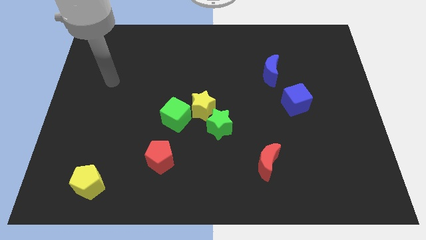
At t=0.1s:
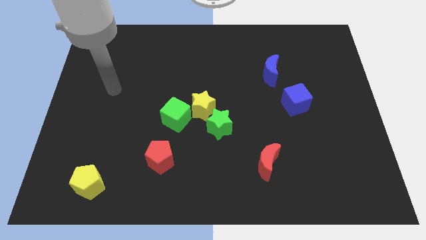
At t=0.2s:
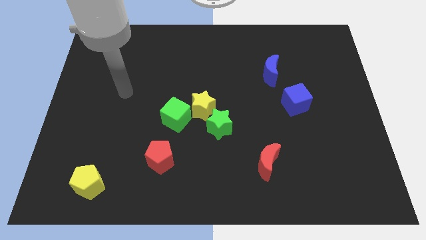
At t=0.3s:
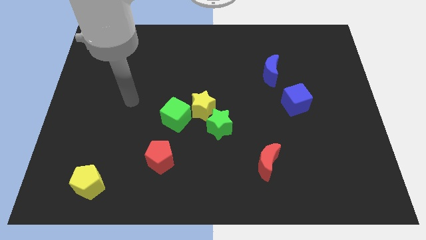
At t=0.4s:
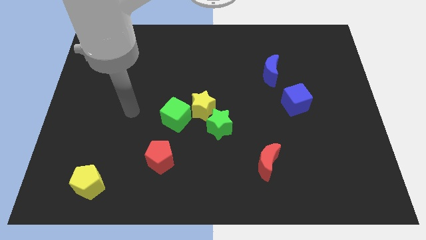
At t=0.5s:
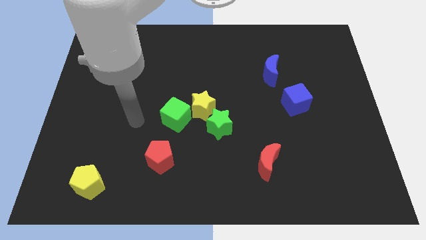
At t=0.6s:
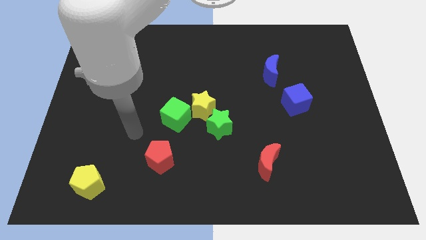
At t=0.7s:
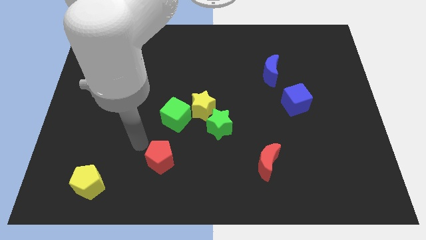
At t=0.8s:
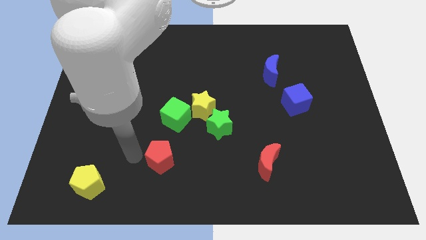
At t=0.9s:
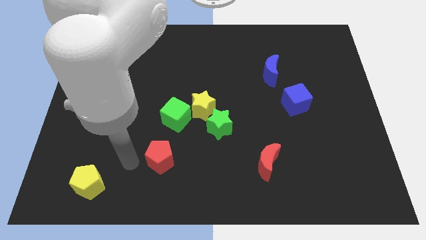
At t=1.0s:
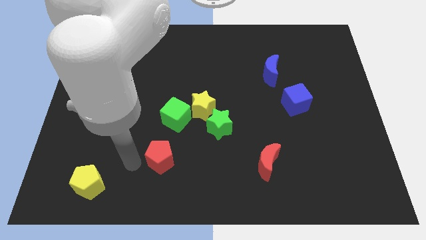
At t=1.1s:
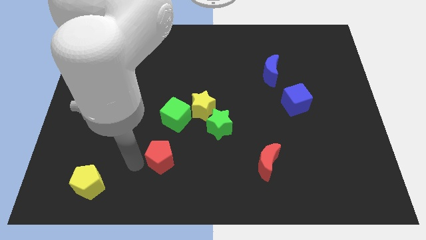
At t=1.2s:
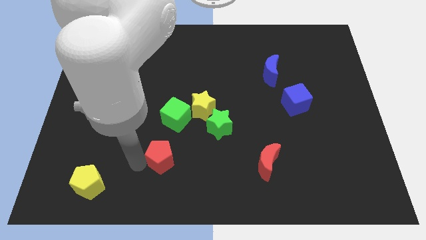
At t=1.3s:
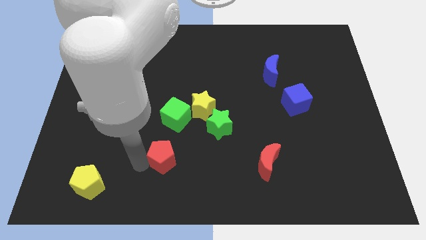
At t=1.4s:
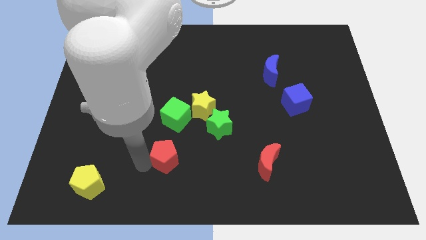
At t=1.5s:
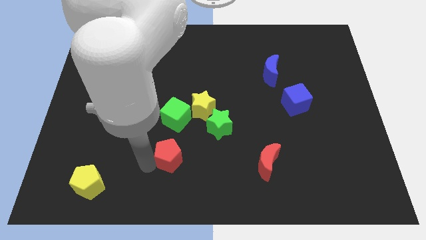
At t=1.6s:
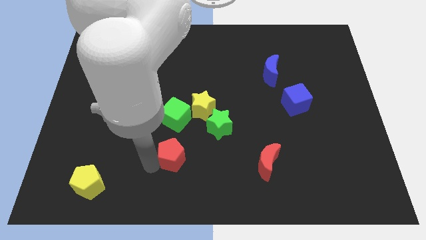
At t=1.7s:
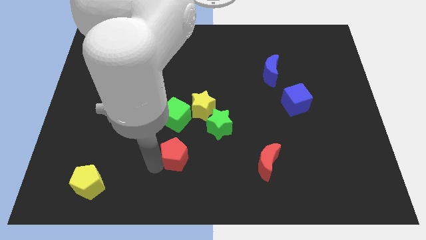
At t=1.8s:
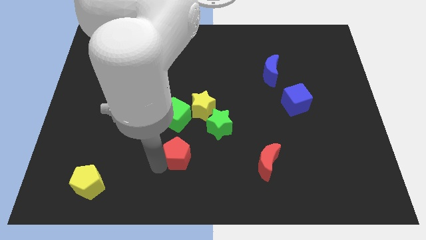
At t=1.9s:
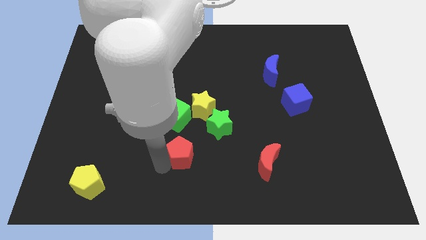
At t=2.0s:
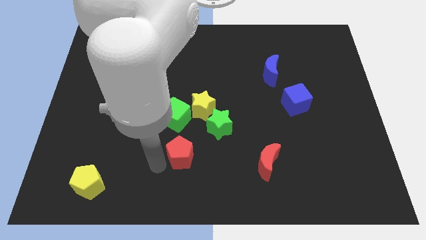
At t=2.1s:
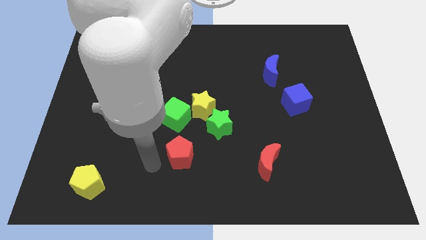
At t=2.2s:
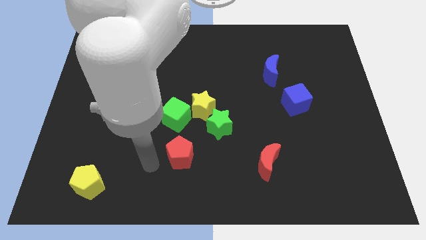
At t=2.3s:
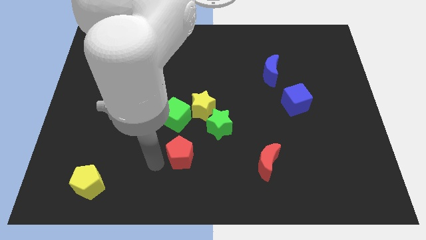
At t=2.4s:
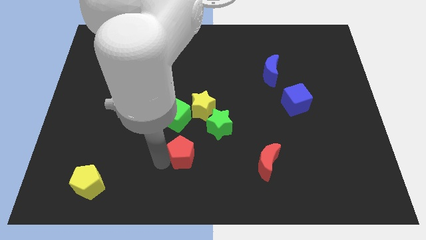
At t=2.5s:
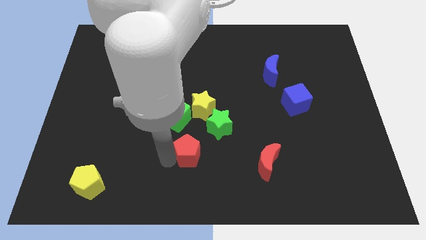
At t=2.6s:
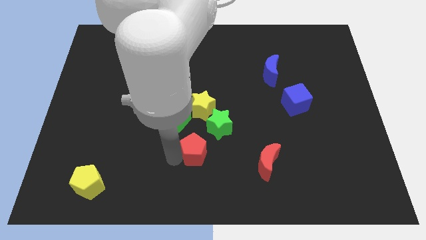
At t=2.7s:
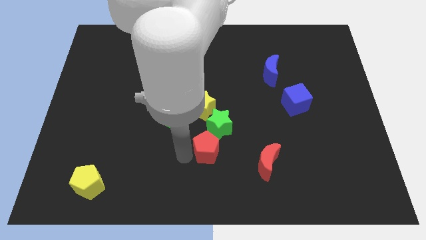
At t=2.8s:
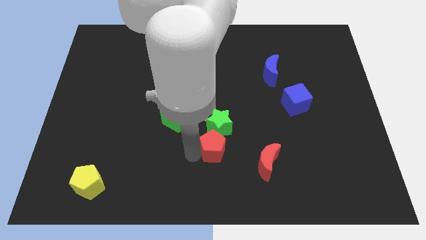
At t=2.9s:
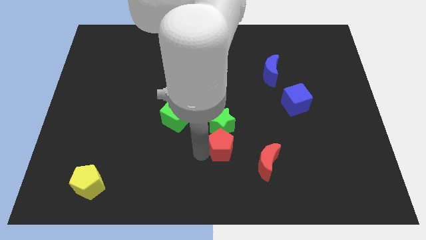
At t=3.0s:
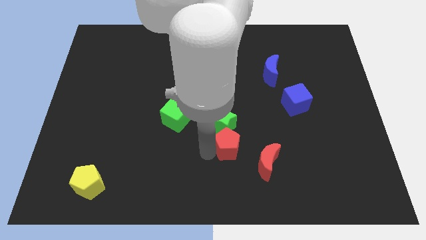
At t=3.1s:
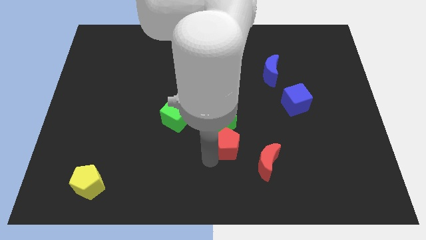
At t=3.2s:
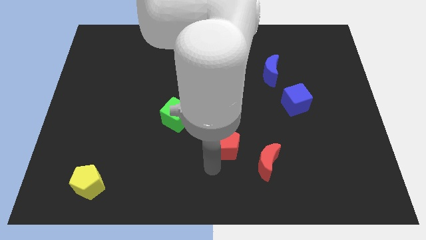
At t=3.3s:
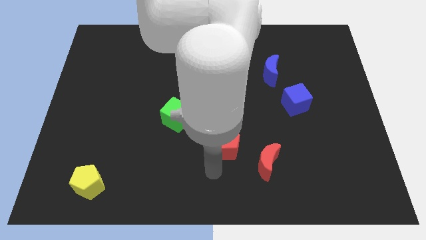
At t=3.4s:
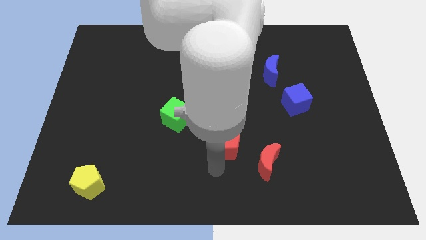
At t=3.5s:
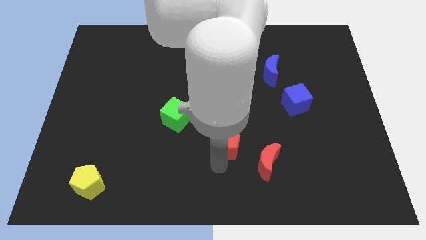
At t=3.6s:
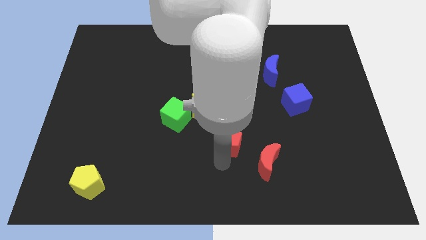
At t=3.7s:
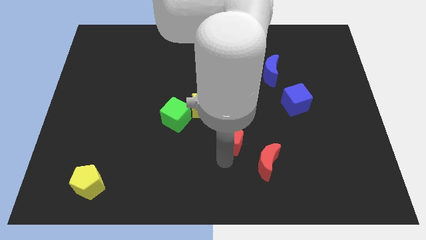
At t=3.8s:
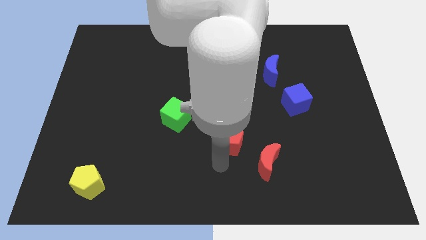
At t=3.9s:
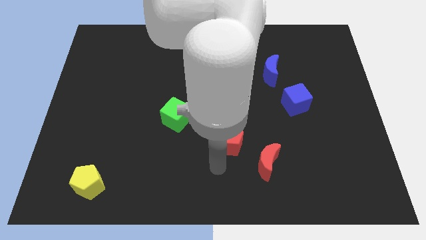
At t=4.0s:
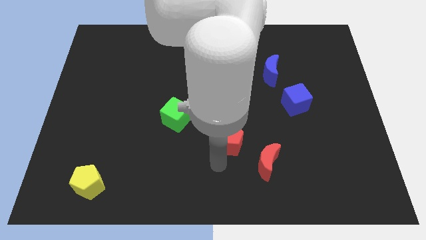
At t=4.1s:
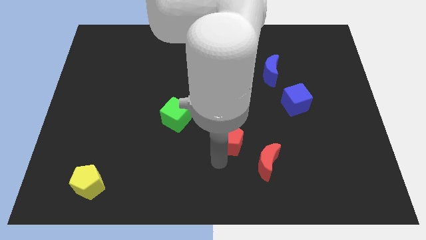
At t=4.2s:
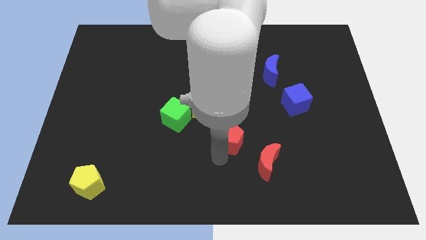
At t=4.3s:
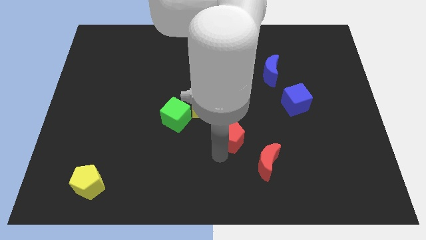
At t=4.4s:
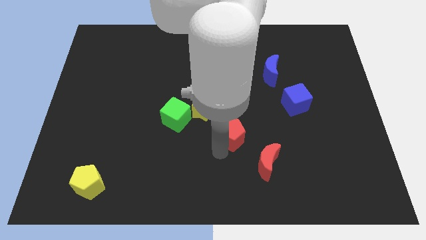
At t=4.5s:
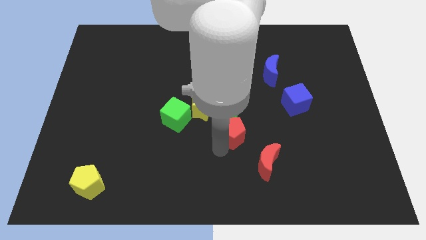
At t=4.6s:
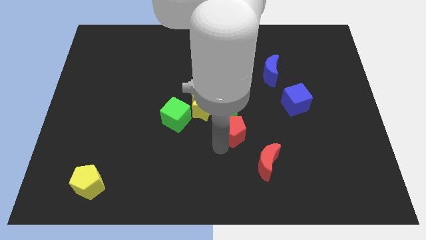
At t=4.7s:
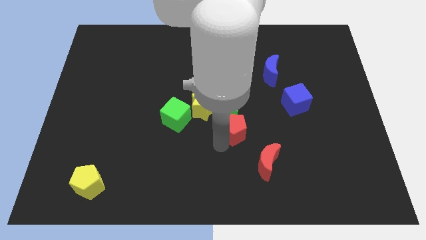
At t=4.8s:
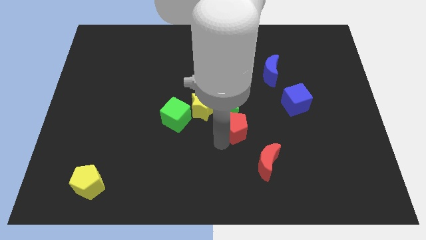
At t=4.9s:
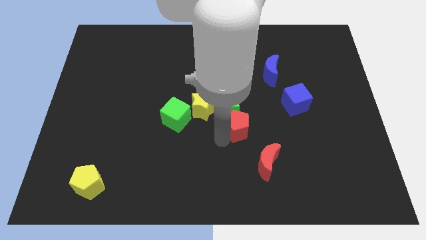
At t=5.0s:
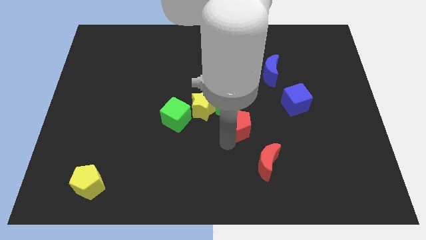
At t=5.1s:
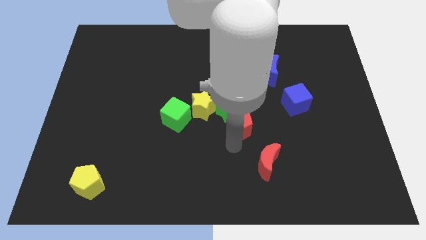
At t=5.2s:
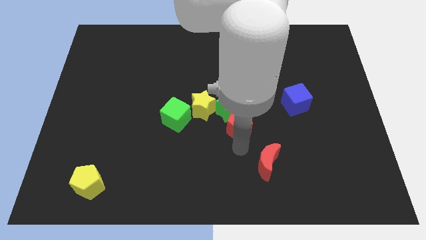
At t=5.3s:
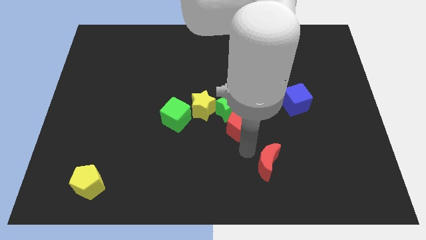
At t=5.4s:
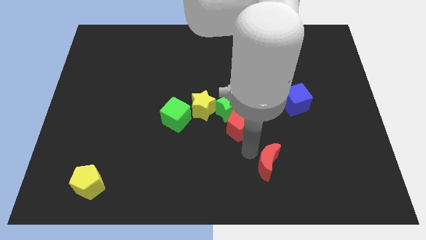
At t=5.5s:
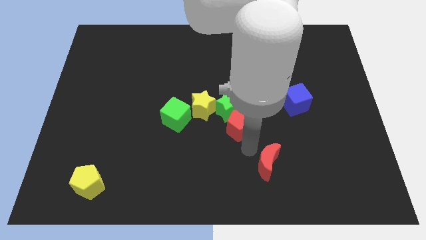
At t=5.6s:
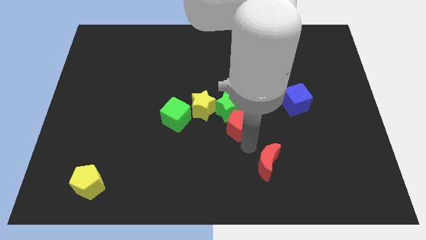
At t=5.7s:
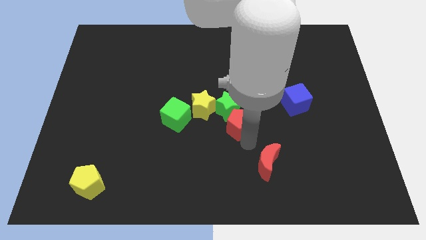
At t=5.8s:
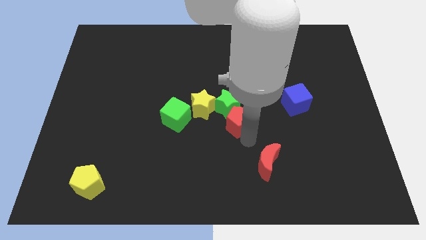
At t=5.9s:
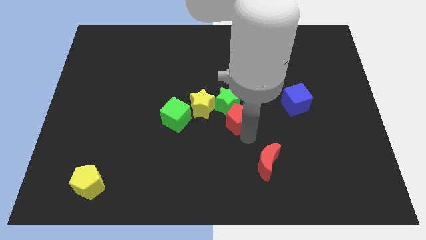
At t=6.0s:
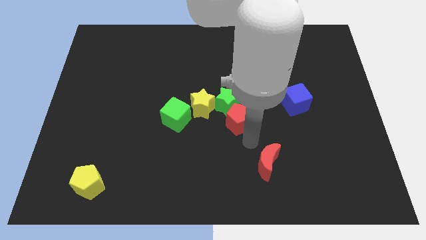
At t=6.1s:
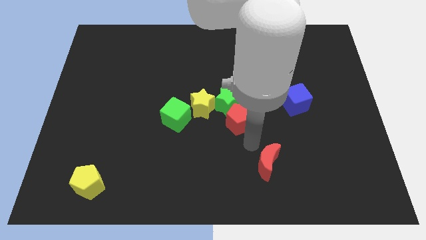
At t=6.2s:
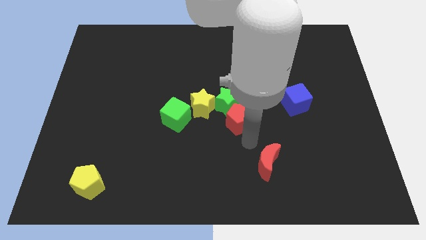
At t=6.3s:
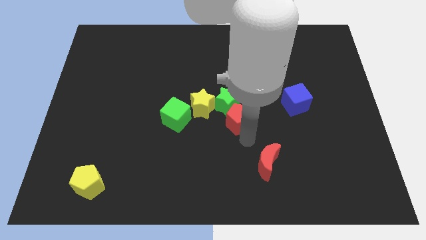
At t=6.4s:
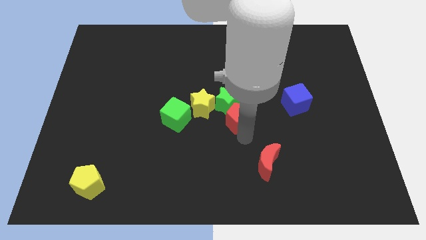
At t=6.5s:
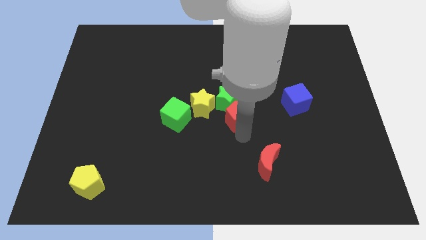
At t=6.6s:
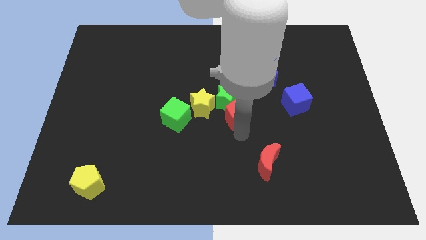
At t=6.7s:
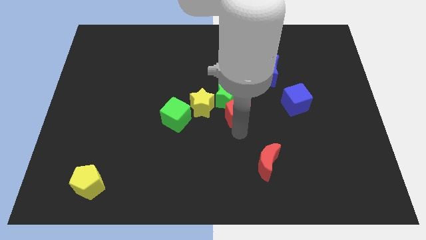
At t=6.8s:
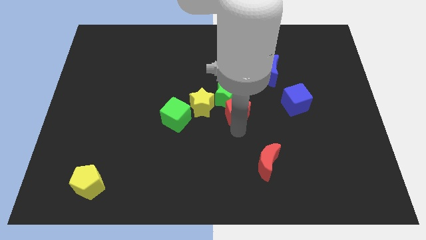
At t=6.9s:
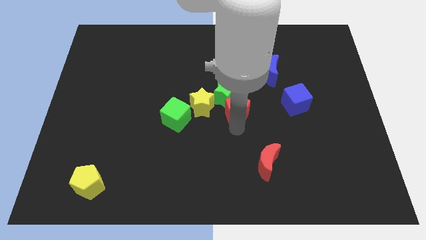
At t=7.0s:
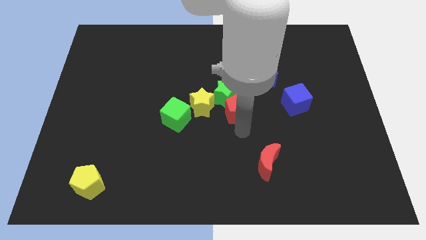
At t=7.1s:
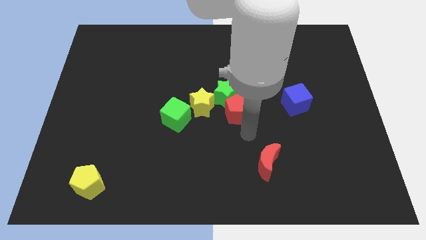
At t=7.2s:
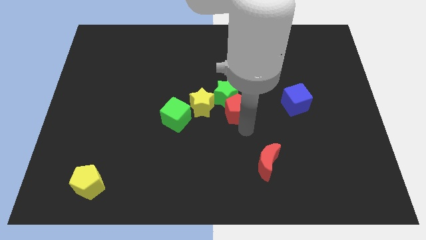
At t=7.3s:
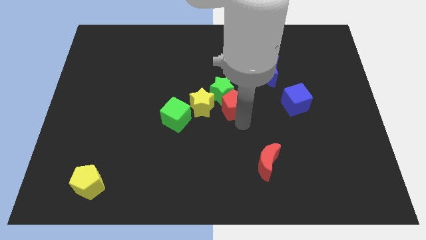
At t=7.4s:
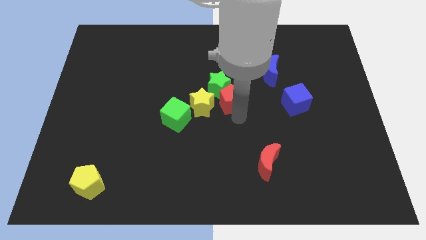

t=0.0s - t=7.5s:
move the red pentagon to the top right of the yellow star
